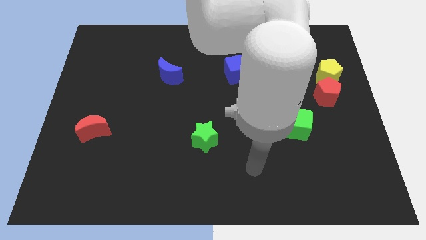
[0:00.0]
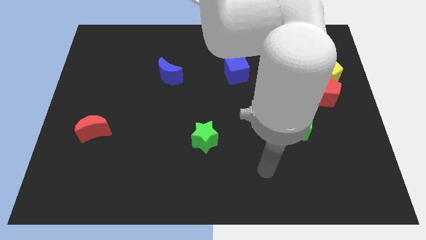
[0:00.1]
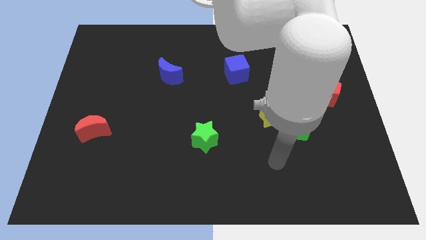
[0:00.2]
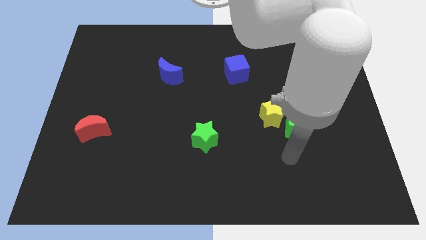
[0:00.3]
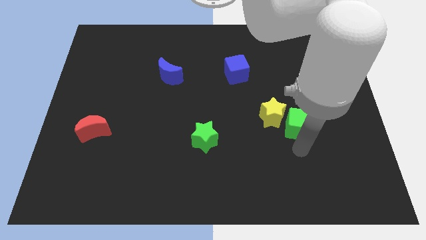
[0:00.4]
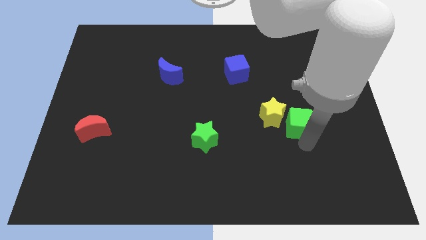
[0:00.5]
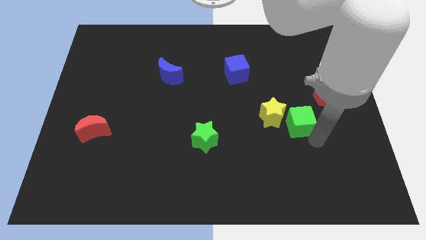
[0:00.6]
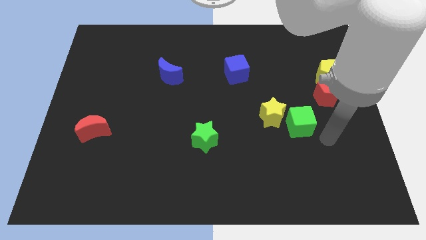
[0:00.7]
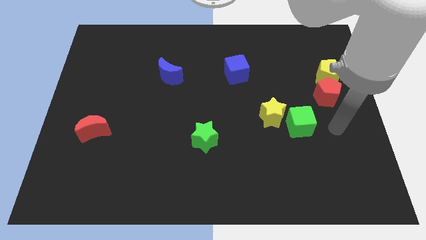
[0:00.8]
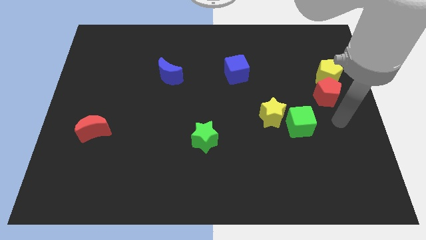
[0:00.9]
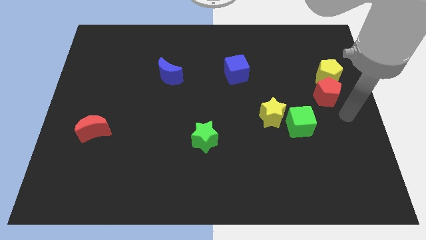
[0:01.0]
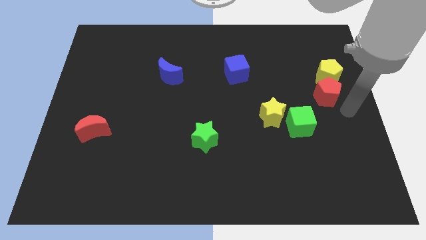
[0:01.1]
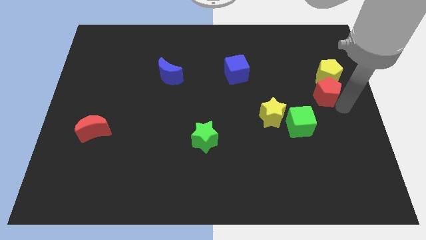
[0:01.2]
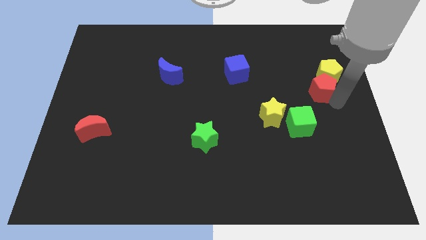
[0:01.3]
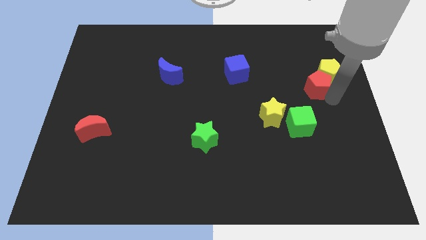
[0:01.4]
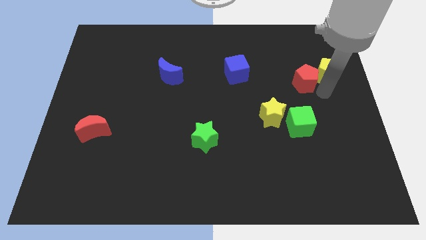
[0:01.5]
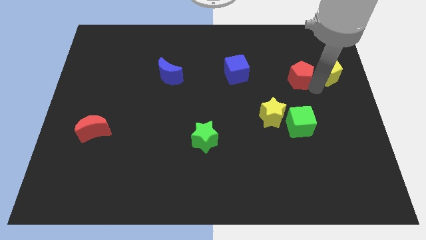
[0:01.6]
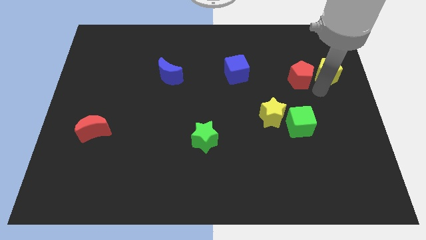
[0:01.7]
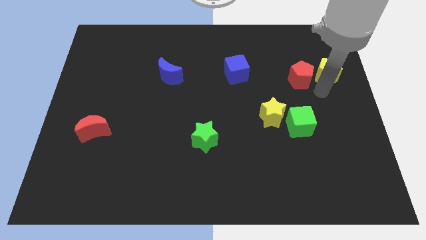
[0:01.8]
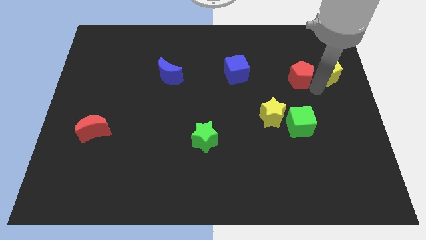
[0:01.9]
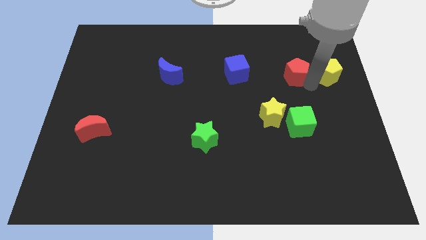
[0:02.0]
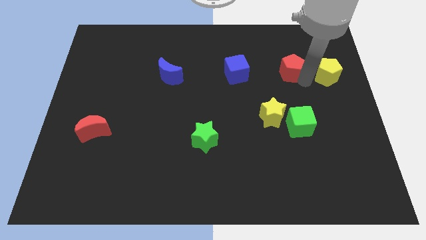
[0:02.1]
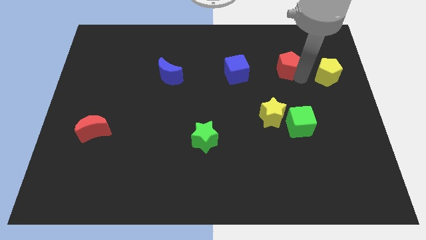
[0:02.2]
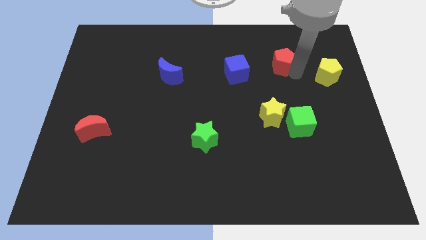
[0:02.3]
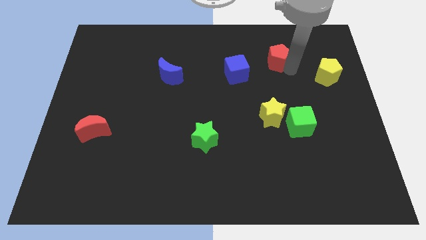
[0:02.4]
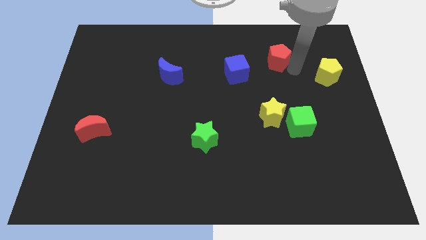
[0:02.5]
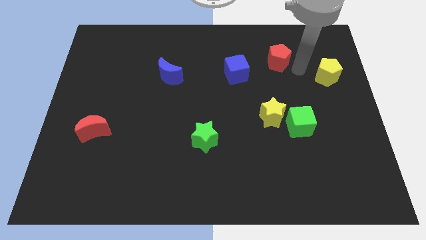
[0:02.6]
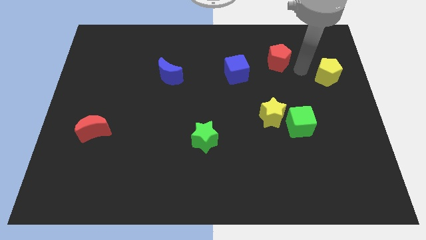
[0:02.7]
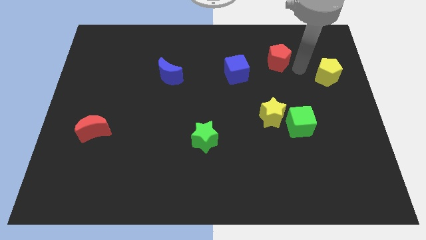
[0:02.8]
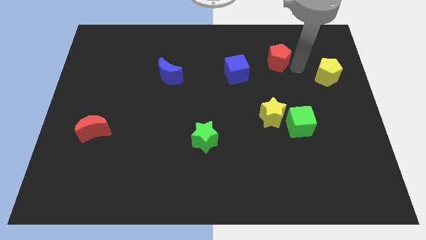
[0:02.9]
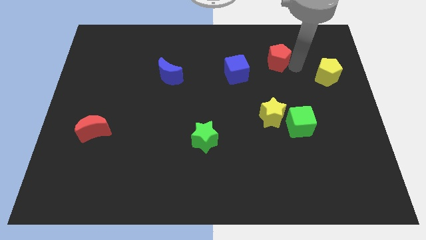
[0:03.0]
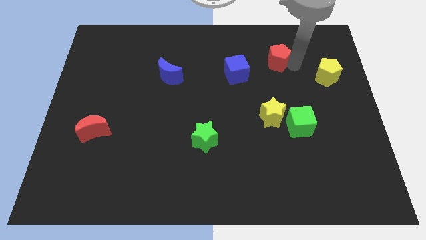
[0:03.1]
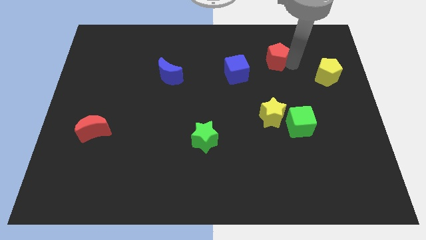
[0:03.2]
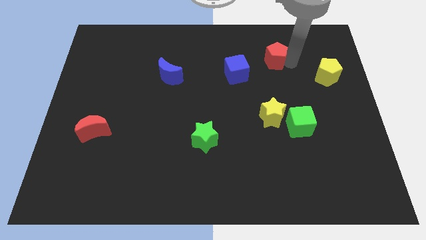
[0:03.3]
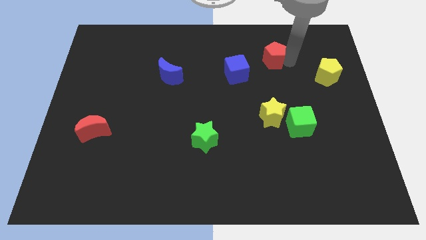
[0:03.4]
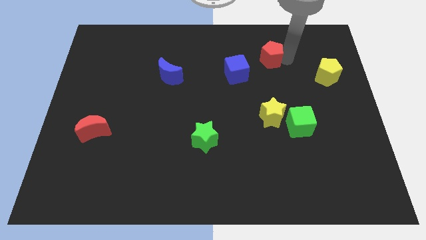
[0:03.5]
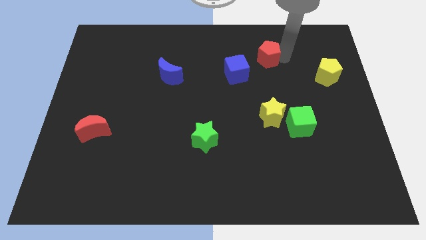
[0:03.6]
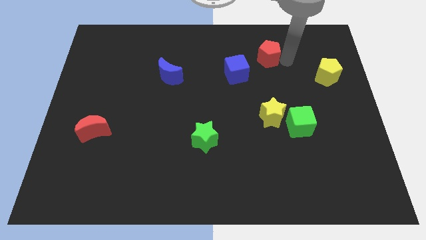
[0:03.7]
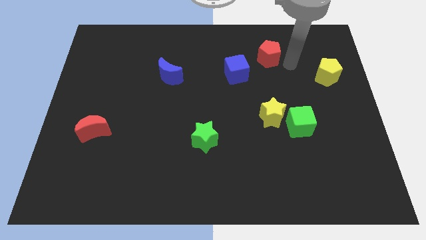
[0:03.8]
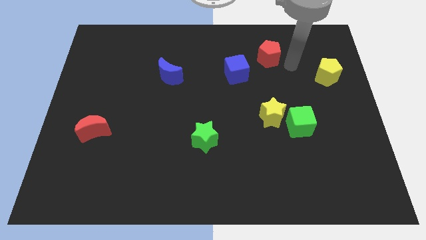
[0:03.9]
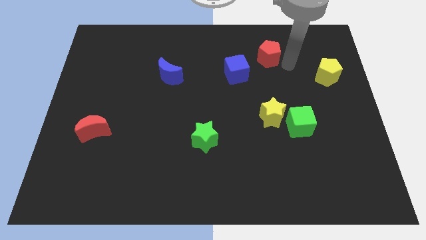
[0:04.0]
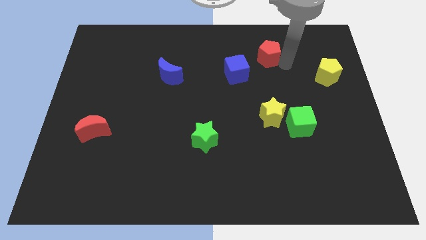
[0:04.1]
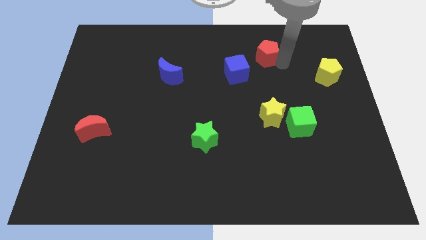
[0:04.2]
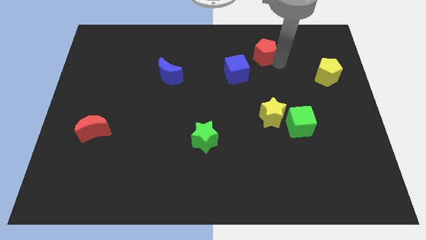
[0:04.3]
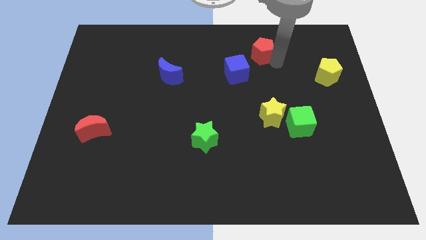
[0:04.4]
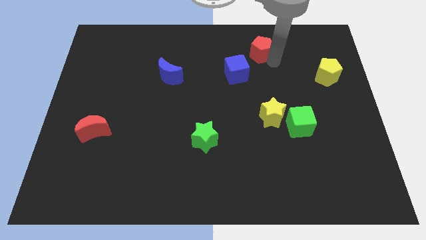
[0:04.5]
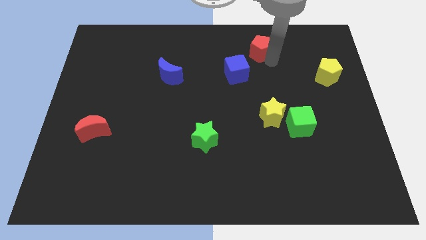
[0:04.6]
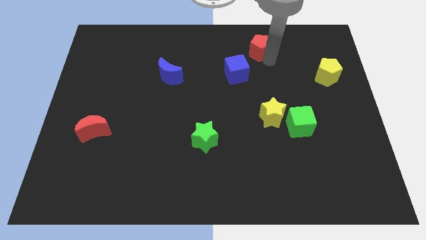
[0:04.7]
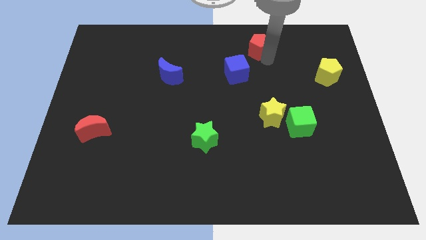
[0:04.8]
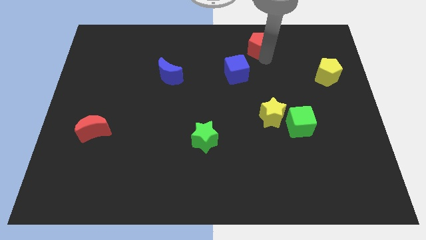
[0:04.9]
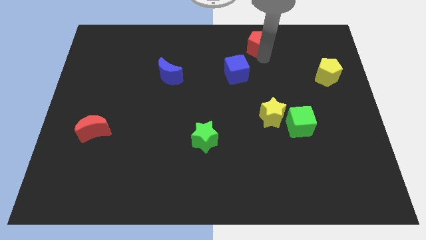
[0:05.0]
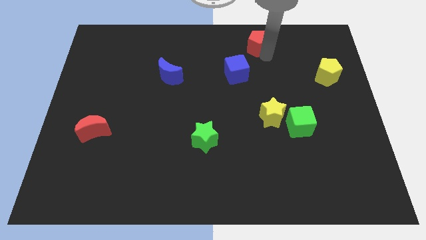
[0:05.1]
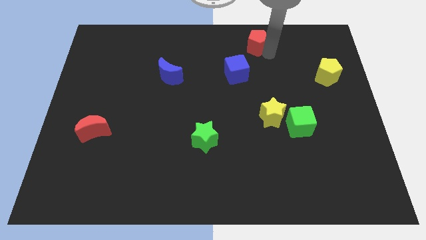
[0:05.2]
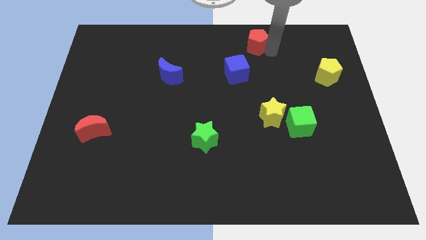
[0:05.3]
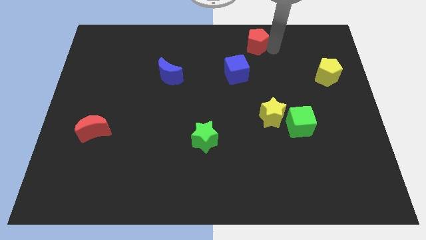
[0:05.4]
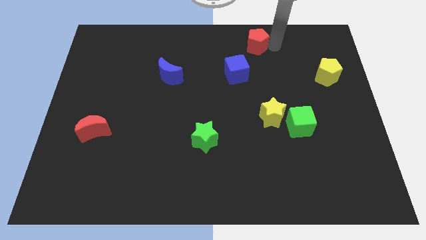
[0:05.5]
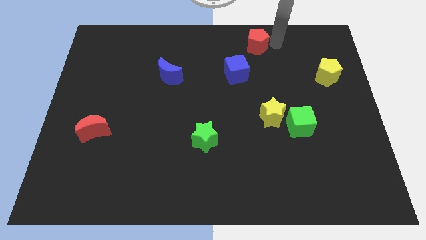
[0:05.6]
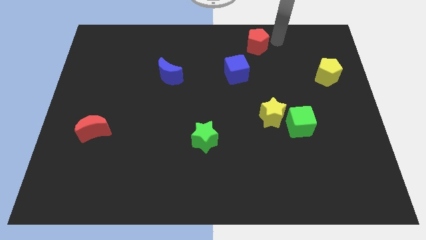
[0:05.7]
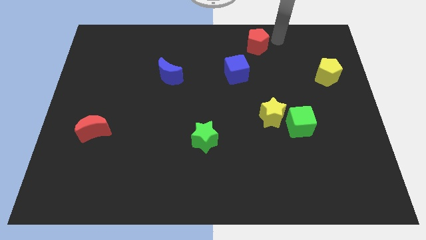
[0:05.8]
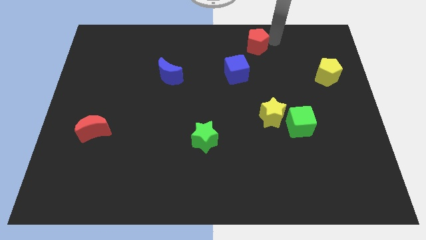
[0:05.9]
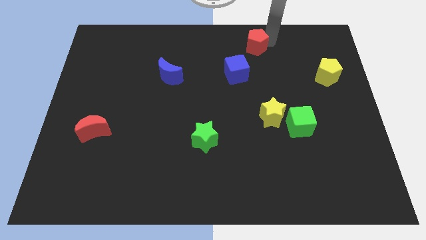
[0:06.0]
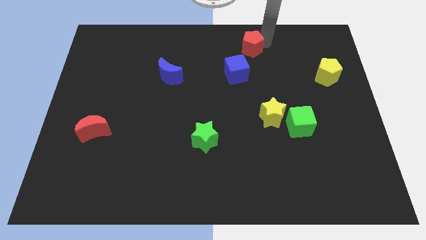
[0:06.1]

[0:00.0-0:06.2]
put the red pentagon to the top
